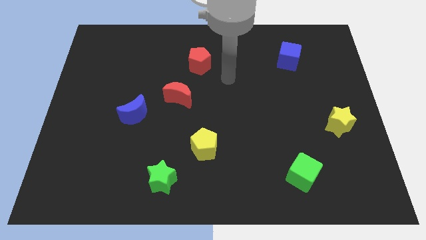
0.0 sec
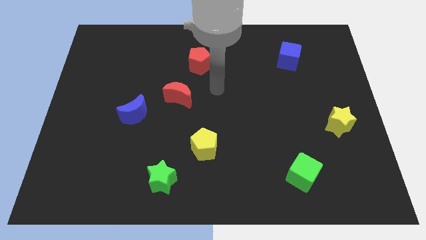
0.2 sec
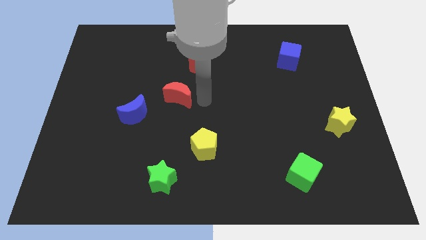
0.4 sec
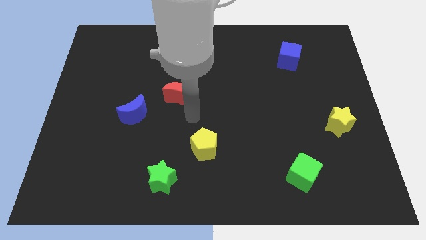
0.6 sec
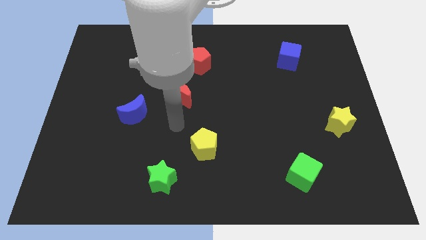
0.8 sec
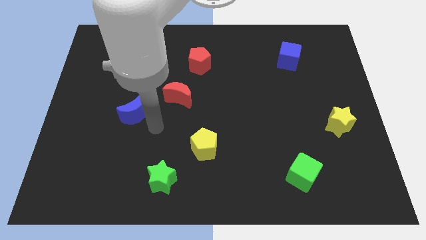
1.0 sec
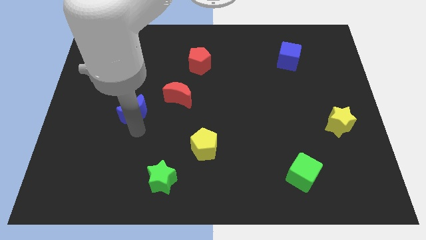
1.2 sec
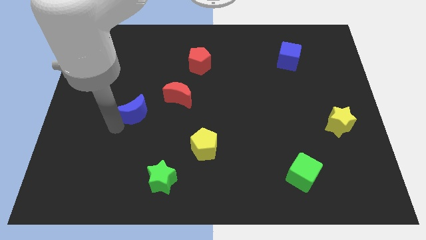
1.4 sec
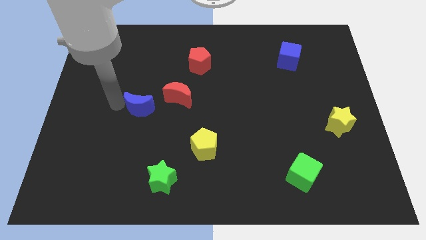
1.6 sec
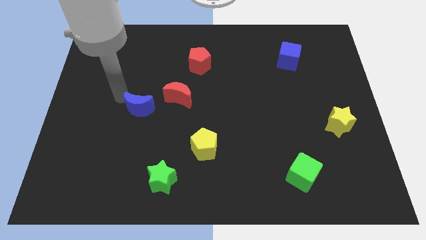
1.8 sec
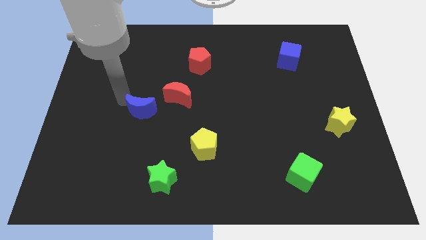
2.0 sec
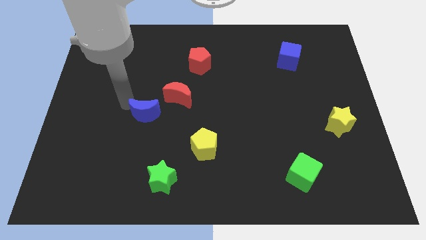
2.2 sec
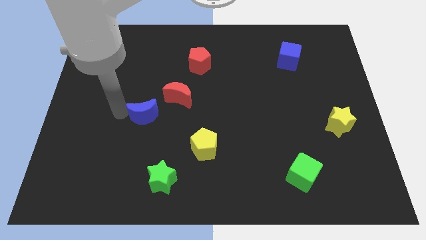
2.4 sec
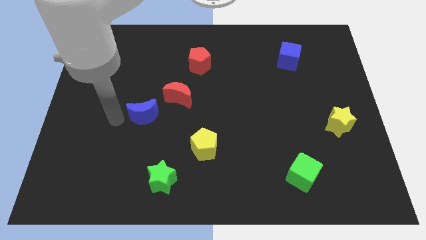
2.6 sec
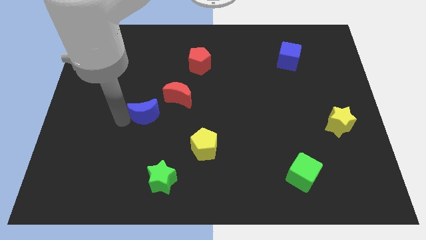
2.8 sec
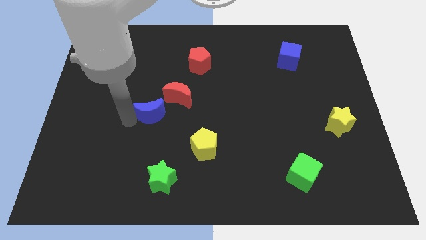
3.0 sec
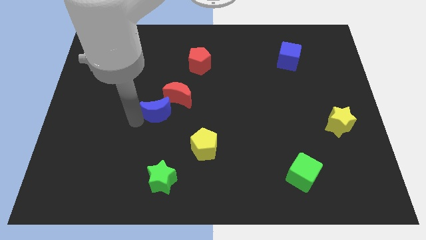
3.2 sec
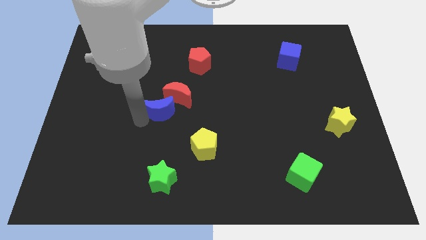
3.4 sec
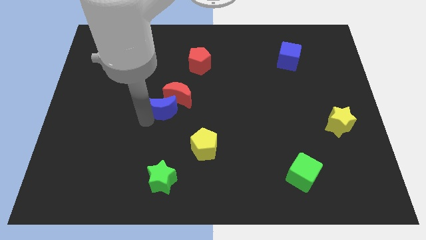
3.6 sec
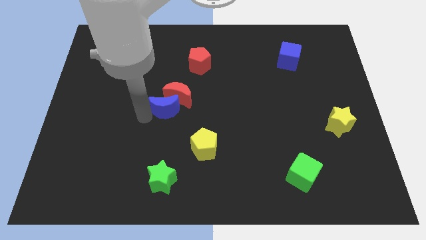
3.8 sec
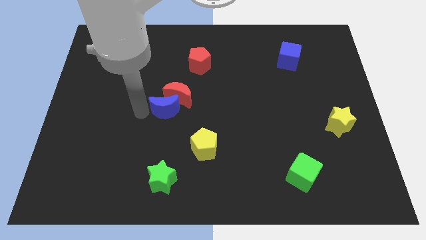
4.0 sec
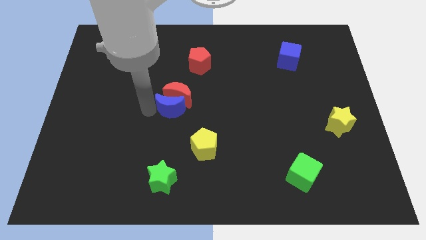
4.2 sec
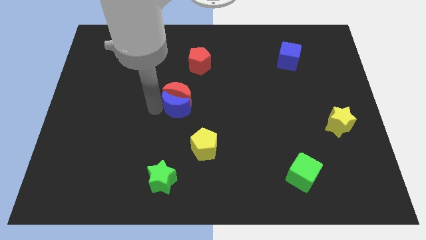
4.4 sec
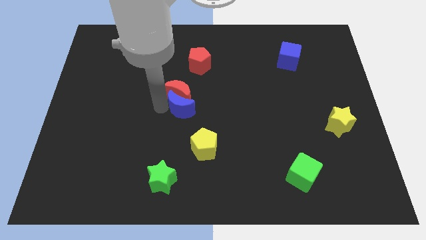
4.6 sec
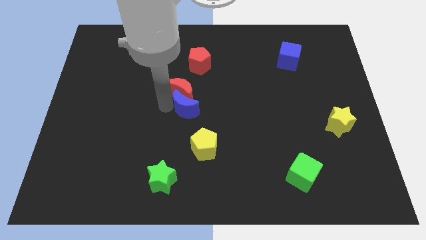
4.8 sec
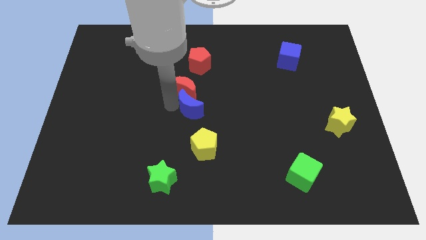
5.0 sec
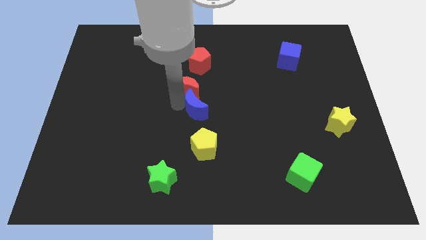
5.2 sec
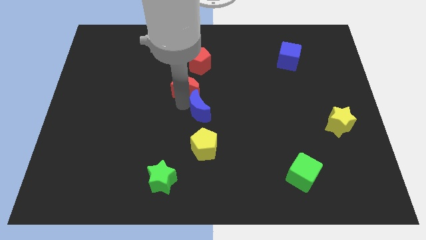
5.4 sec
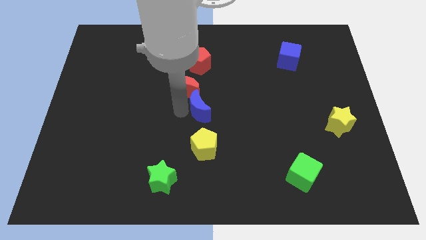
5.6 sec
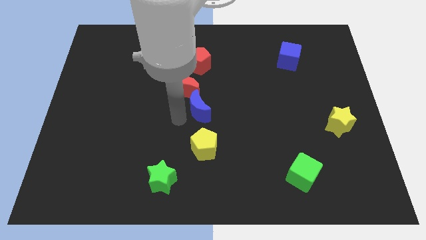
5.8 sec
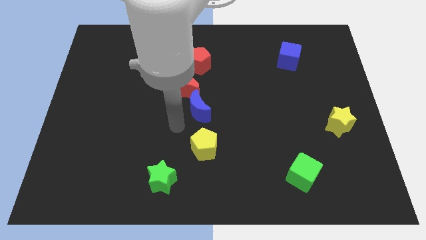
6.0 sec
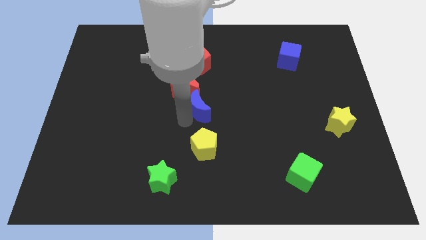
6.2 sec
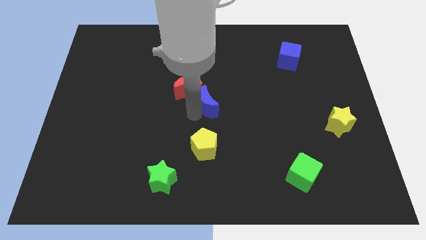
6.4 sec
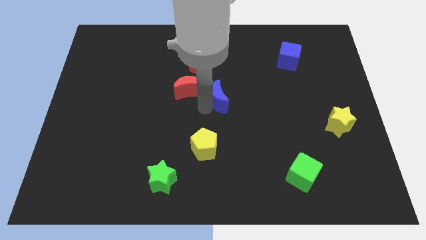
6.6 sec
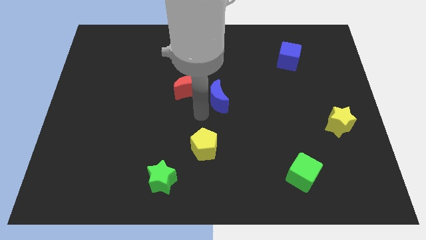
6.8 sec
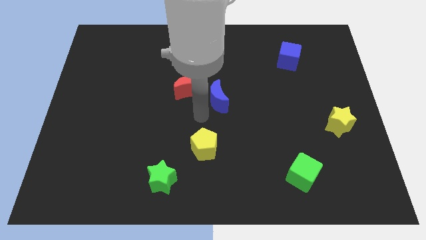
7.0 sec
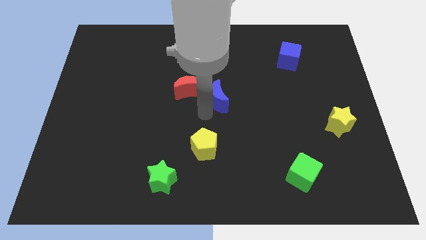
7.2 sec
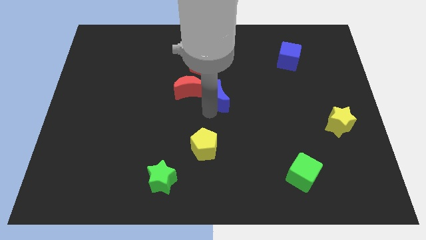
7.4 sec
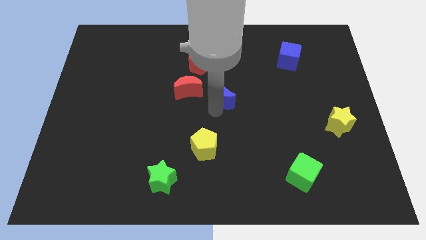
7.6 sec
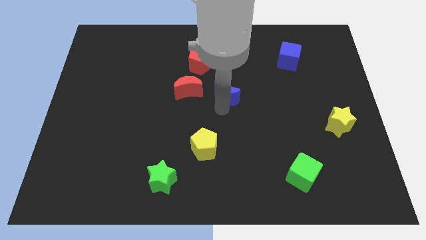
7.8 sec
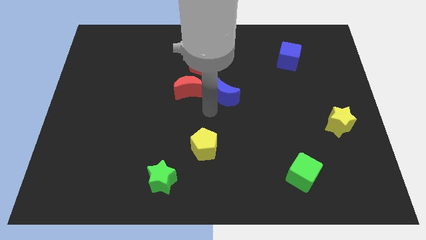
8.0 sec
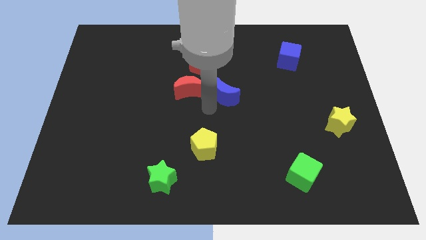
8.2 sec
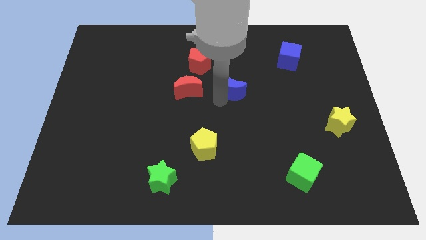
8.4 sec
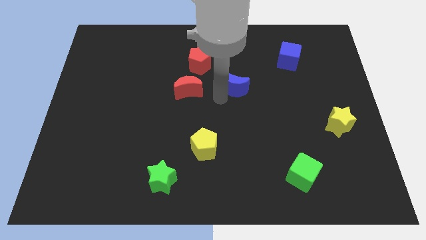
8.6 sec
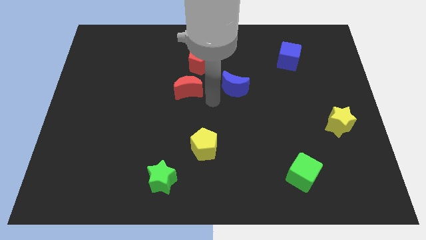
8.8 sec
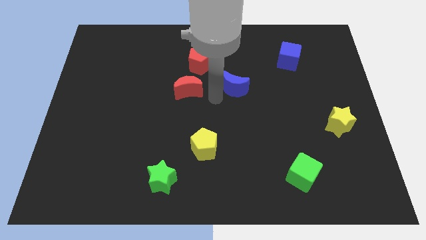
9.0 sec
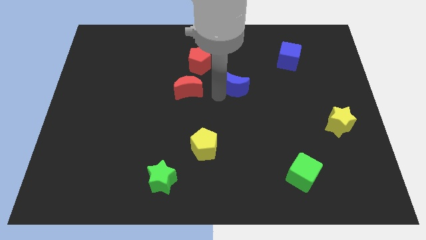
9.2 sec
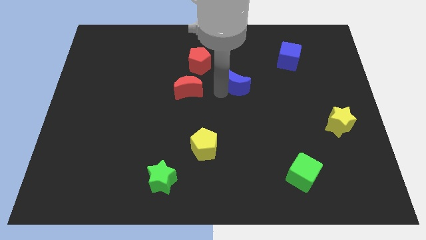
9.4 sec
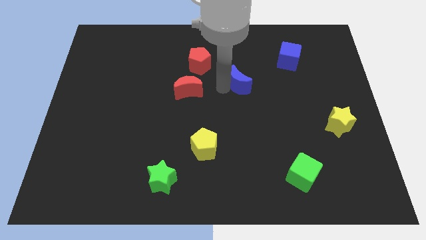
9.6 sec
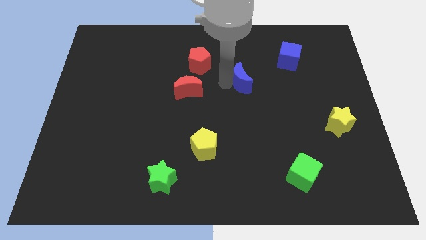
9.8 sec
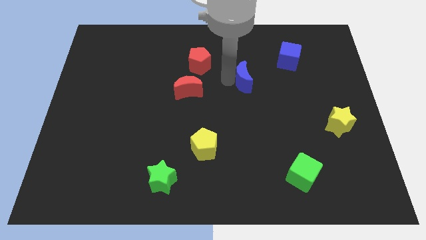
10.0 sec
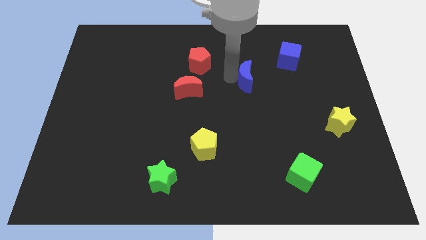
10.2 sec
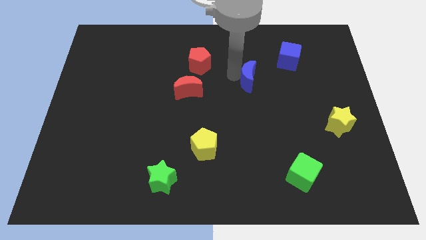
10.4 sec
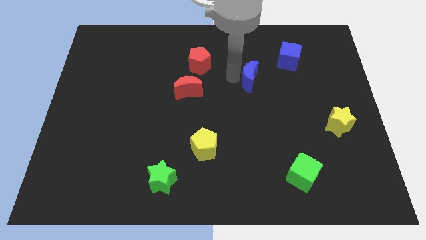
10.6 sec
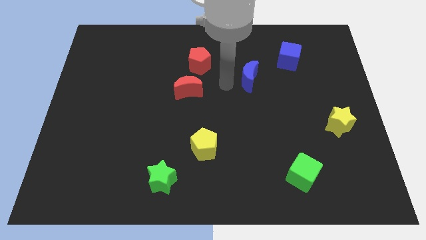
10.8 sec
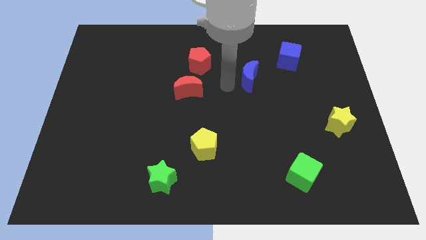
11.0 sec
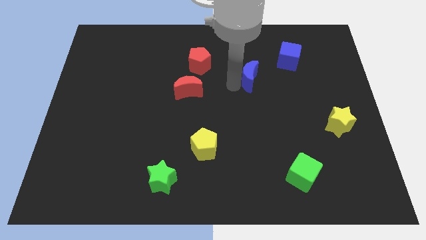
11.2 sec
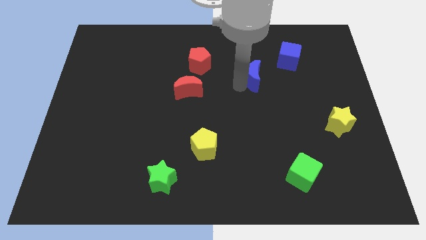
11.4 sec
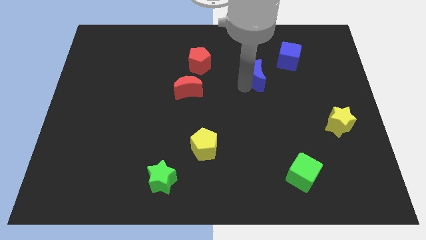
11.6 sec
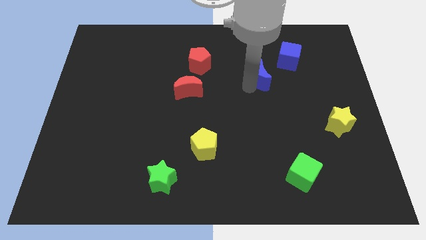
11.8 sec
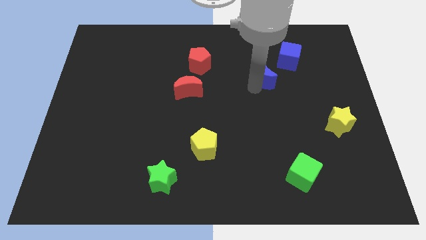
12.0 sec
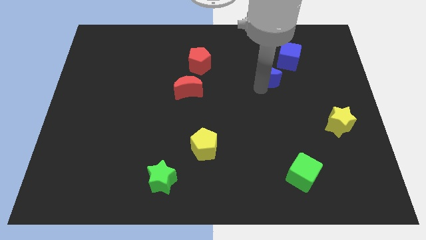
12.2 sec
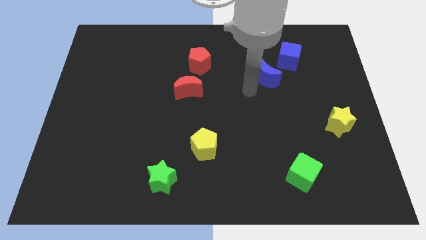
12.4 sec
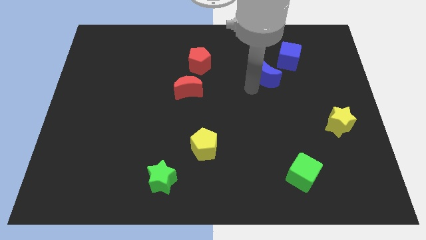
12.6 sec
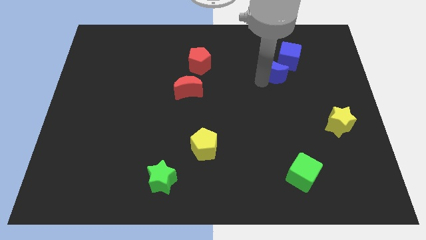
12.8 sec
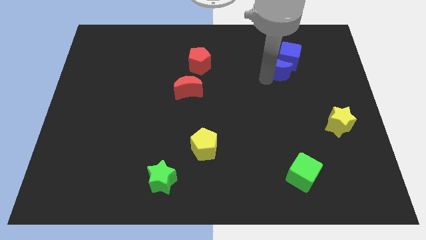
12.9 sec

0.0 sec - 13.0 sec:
slide the blue moon towards the blue cube

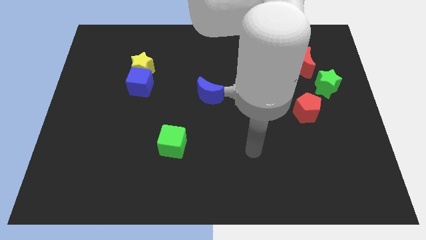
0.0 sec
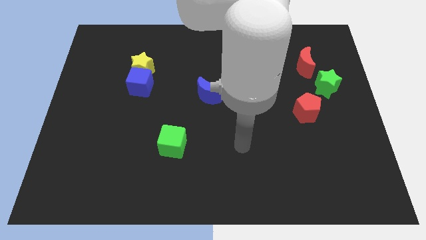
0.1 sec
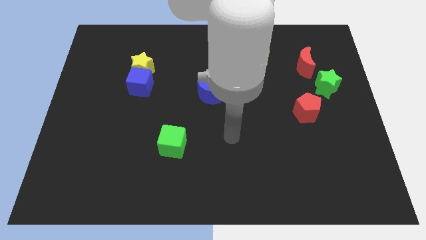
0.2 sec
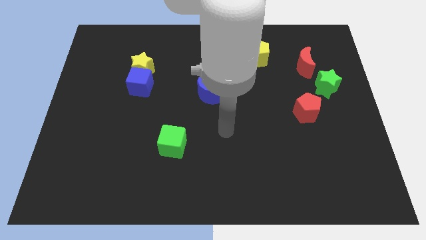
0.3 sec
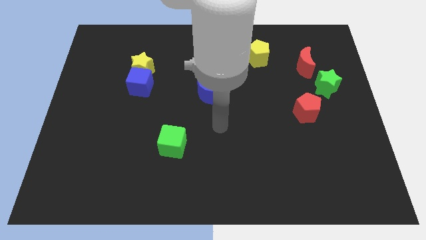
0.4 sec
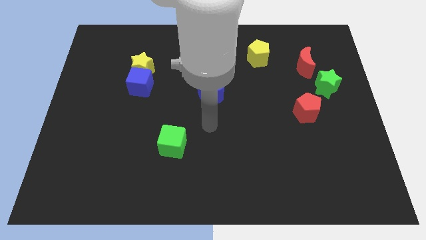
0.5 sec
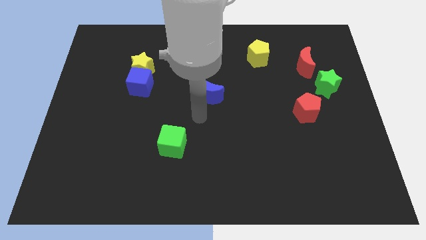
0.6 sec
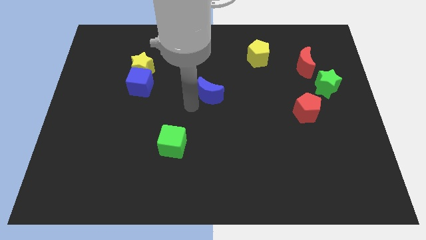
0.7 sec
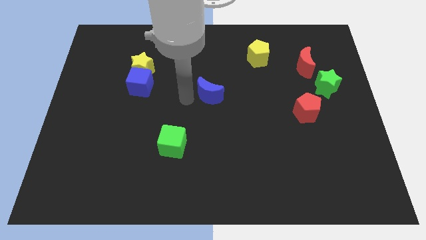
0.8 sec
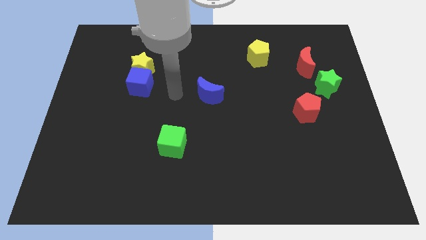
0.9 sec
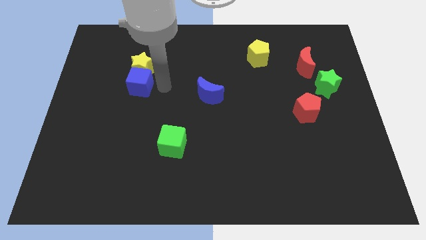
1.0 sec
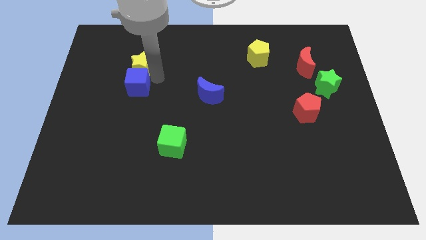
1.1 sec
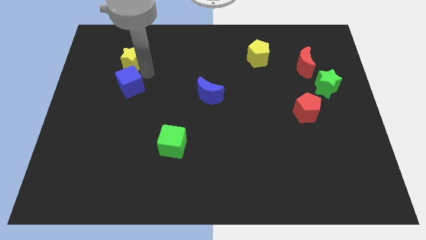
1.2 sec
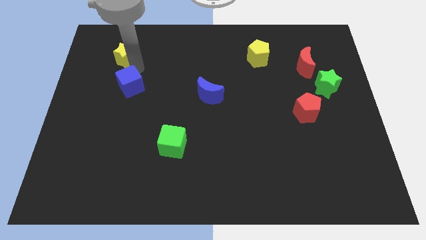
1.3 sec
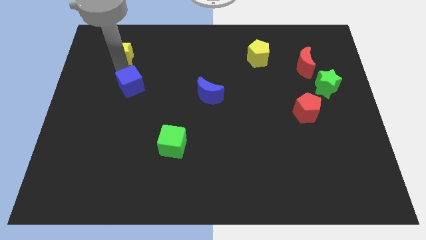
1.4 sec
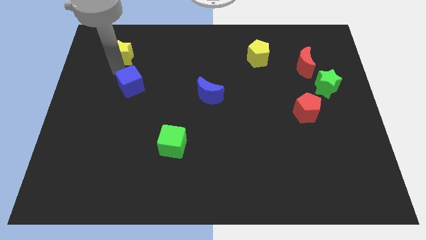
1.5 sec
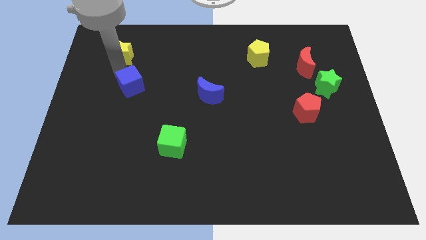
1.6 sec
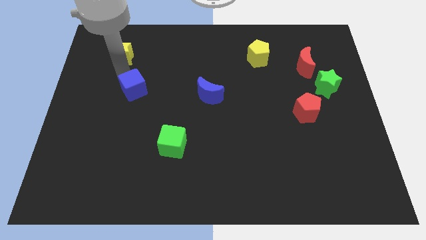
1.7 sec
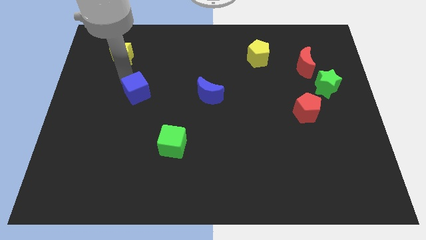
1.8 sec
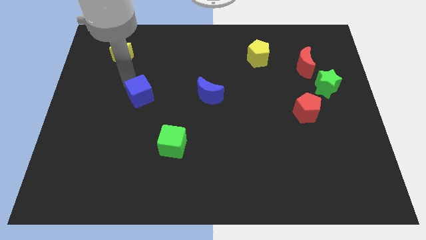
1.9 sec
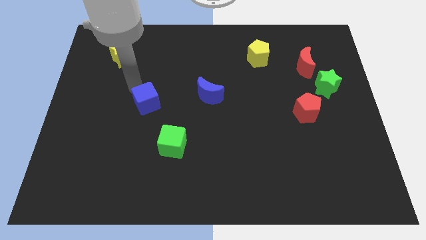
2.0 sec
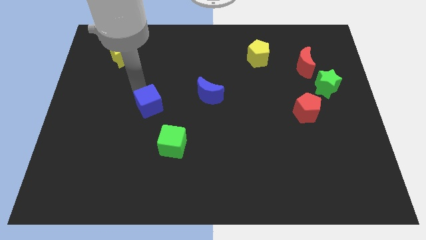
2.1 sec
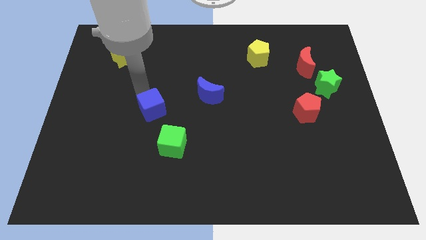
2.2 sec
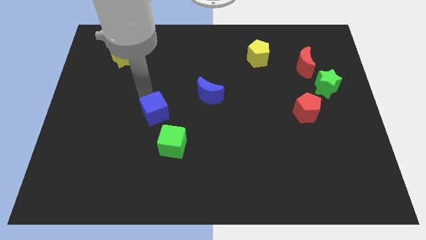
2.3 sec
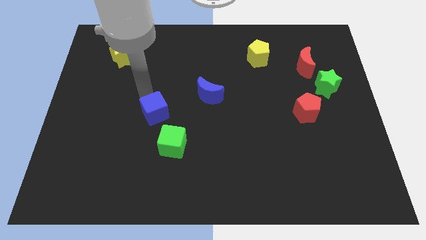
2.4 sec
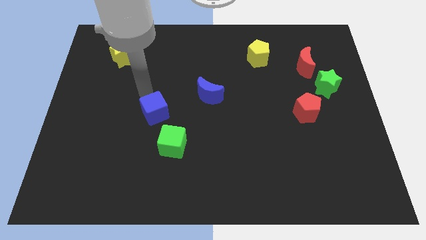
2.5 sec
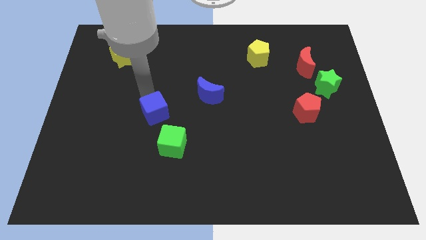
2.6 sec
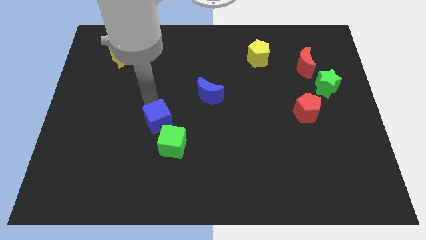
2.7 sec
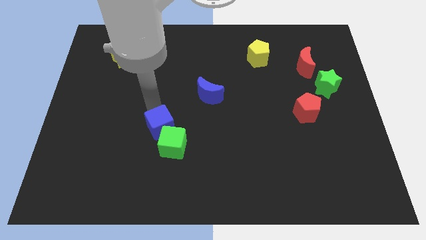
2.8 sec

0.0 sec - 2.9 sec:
push the blue cube to the green cube
